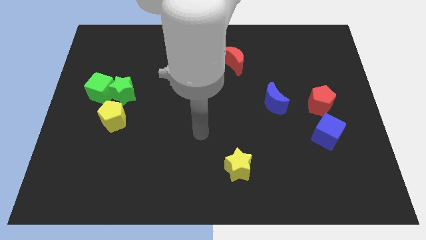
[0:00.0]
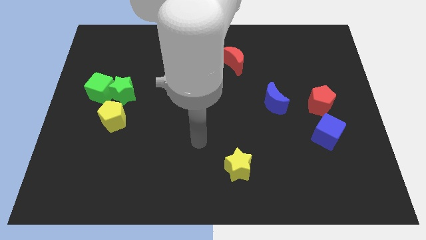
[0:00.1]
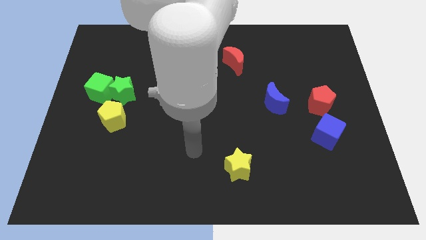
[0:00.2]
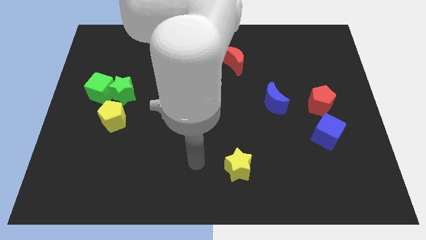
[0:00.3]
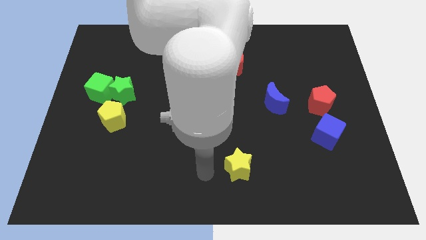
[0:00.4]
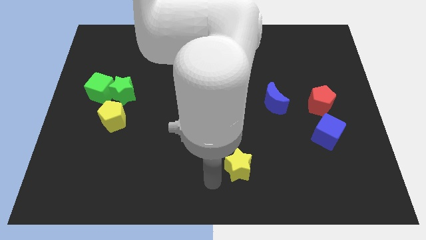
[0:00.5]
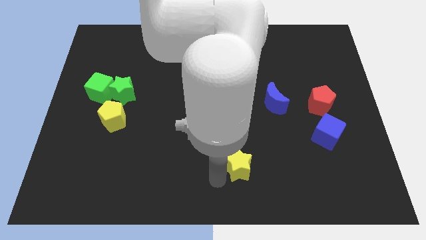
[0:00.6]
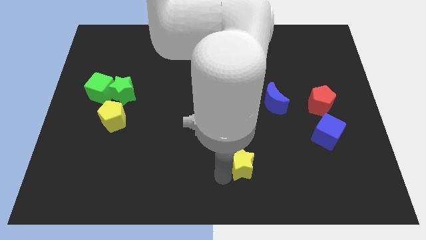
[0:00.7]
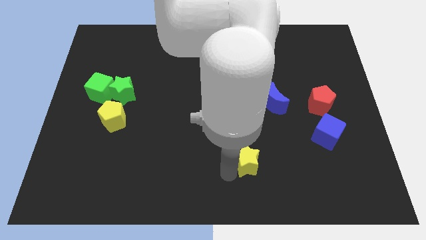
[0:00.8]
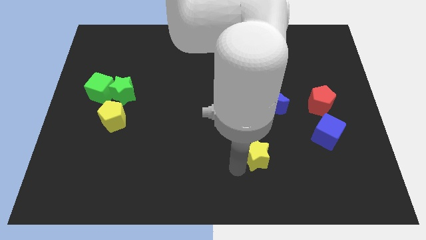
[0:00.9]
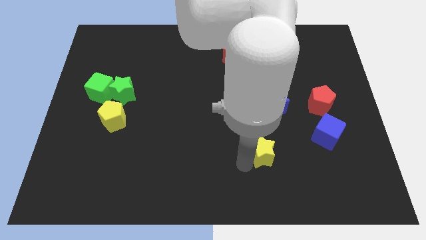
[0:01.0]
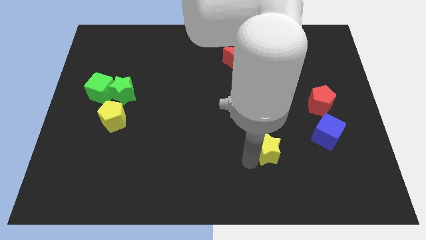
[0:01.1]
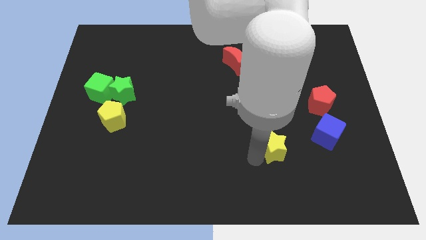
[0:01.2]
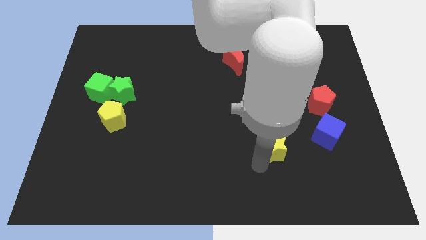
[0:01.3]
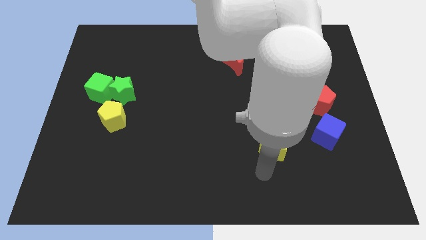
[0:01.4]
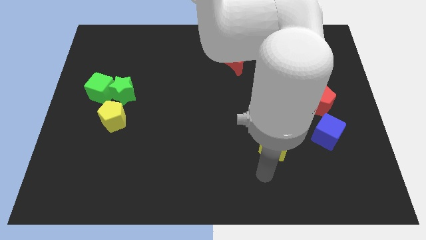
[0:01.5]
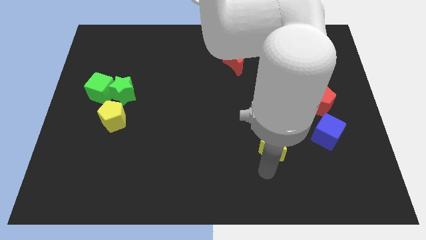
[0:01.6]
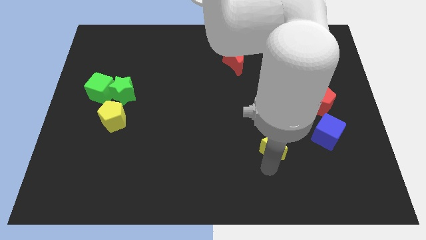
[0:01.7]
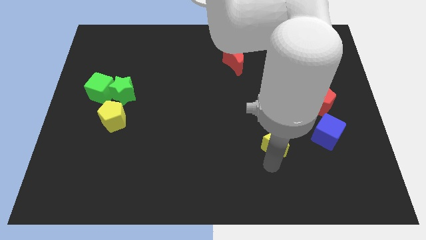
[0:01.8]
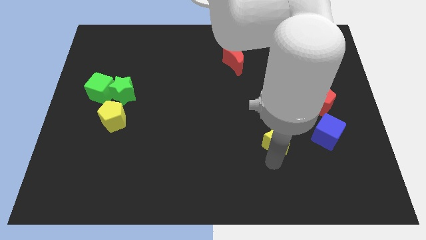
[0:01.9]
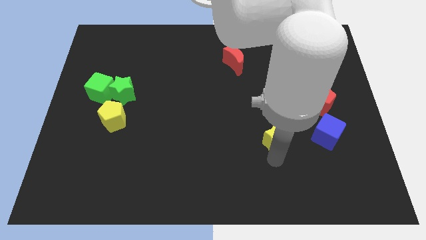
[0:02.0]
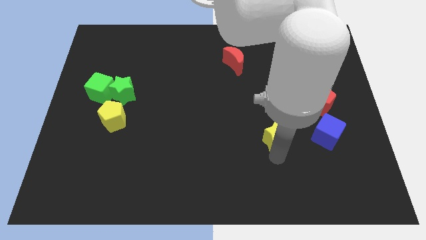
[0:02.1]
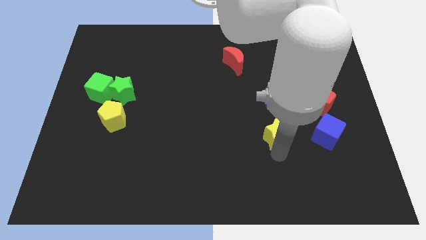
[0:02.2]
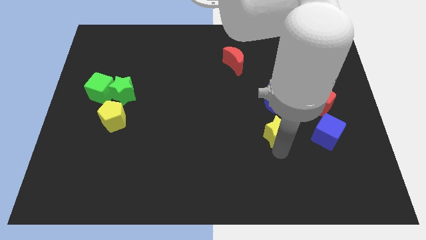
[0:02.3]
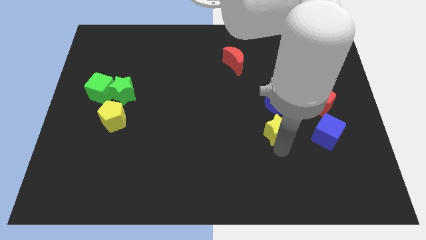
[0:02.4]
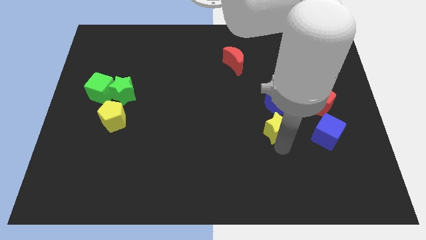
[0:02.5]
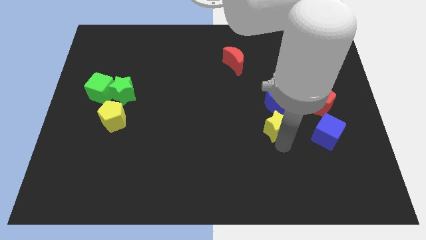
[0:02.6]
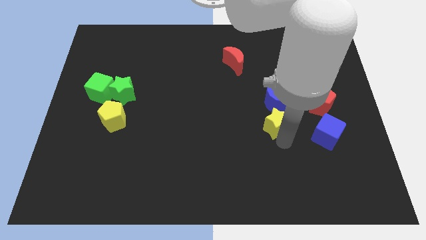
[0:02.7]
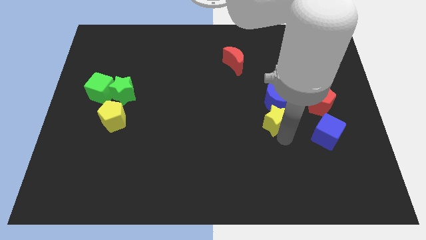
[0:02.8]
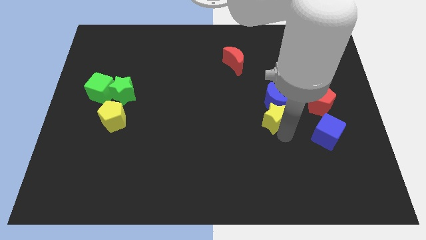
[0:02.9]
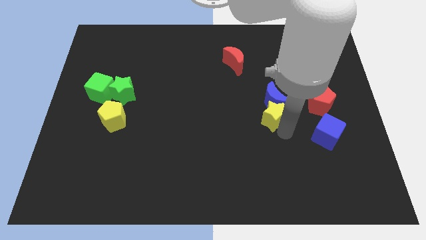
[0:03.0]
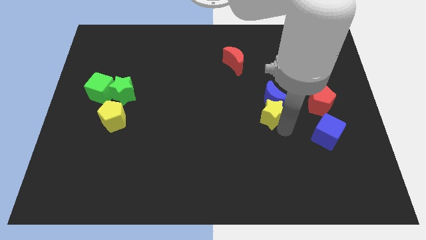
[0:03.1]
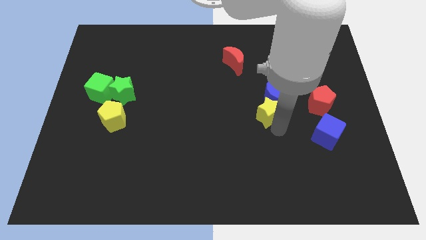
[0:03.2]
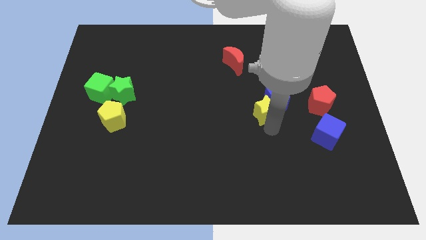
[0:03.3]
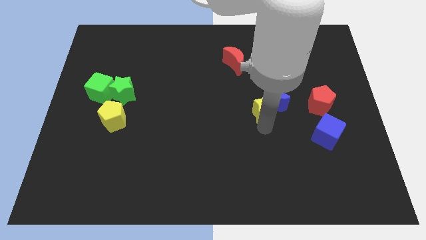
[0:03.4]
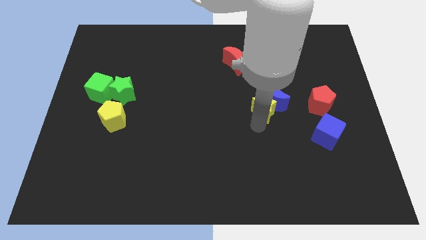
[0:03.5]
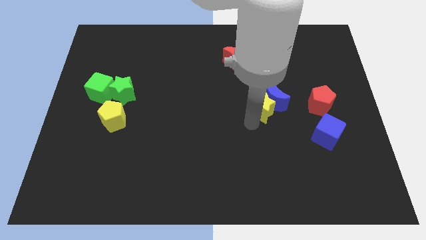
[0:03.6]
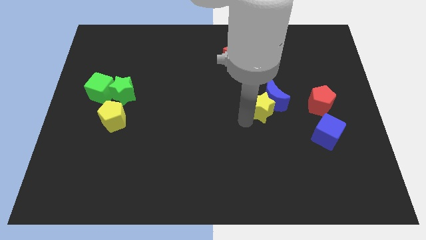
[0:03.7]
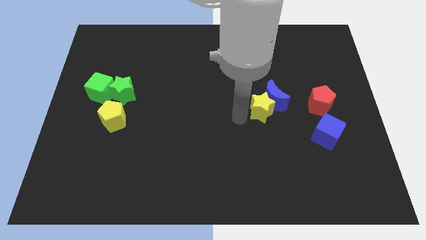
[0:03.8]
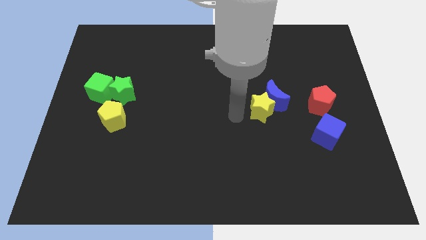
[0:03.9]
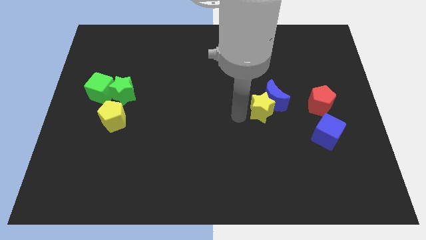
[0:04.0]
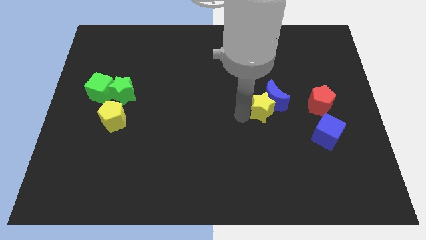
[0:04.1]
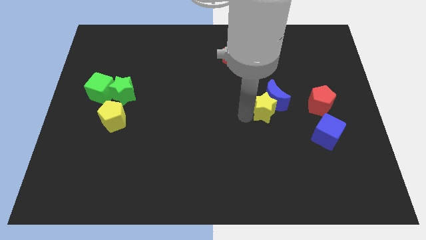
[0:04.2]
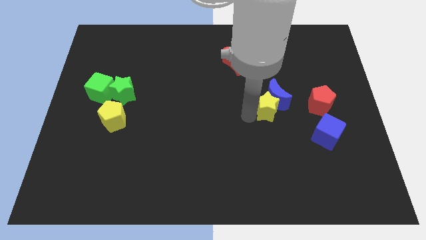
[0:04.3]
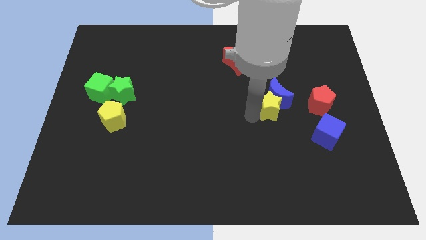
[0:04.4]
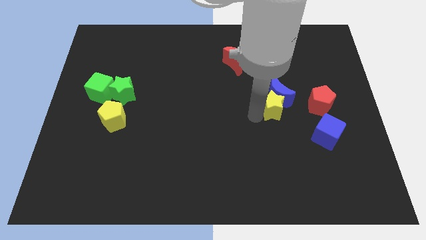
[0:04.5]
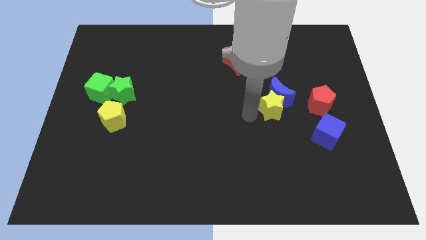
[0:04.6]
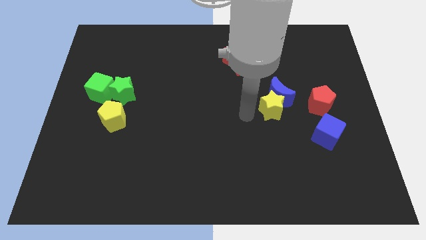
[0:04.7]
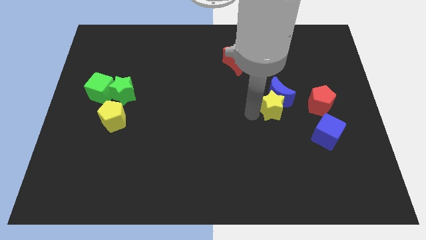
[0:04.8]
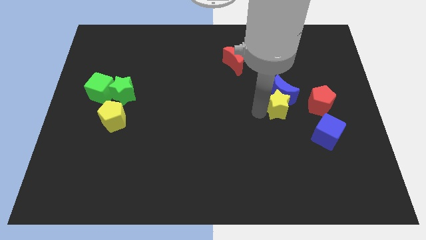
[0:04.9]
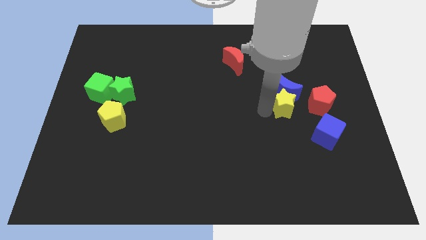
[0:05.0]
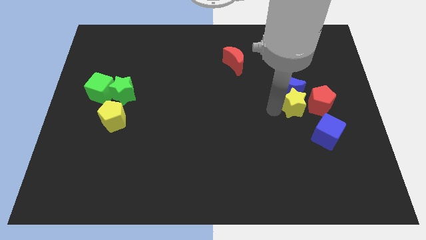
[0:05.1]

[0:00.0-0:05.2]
slide the yellow star upwards and then right

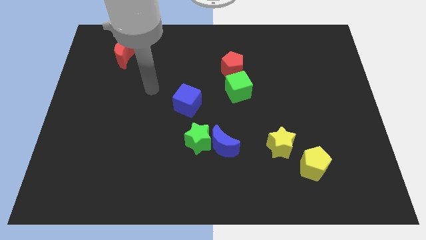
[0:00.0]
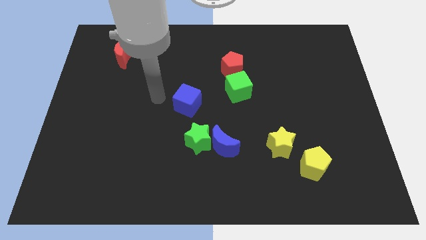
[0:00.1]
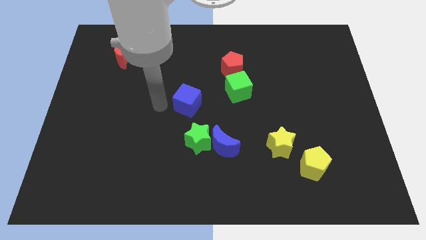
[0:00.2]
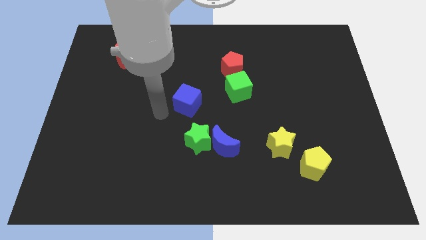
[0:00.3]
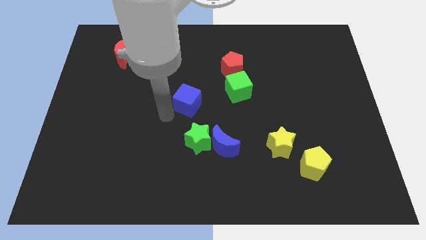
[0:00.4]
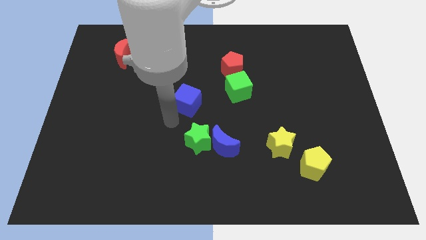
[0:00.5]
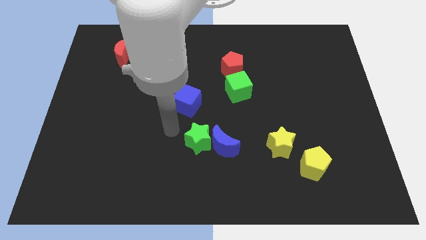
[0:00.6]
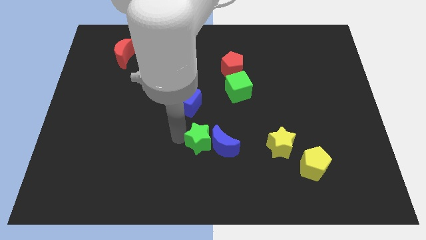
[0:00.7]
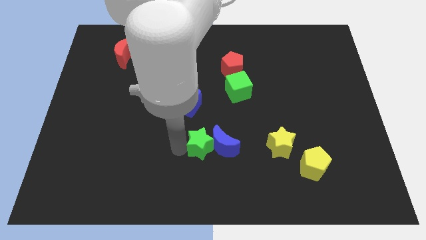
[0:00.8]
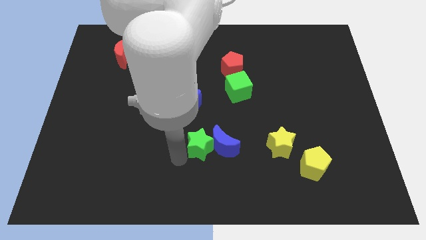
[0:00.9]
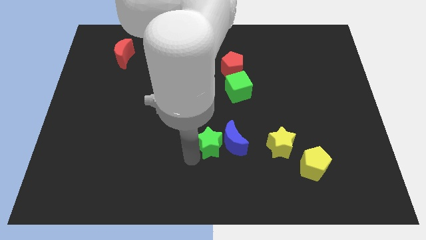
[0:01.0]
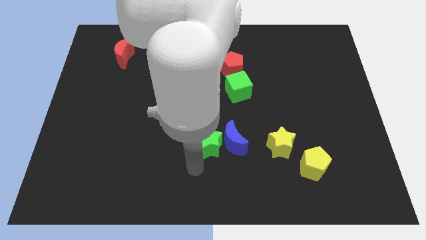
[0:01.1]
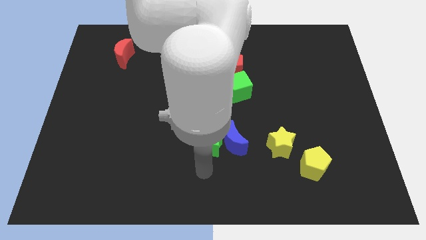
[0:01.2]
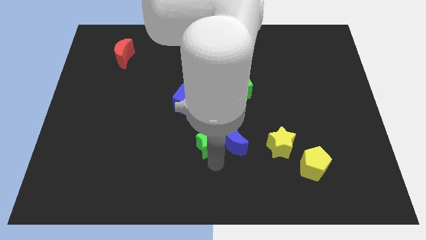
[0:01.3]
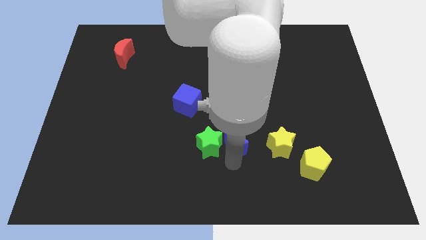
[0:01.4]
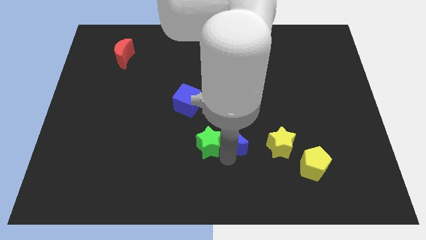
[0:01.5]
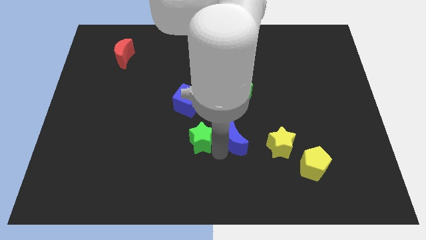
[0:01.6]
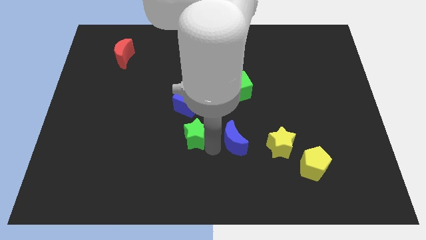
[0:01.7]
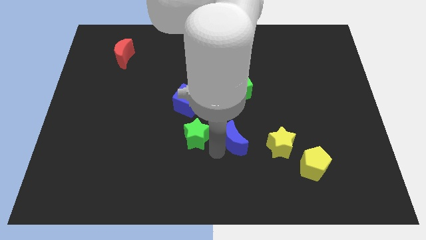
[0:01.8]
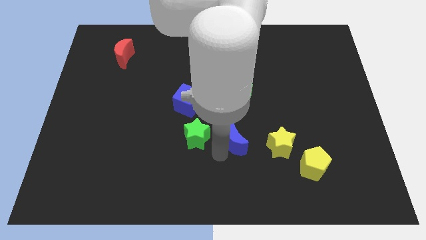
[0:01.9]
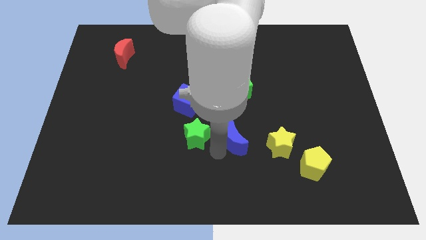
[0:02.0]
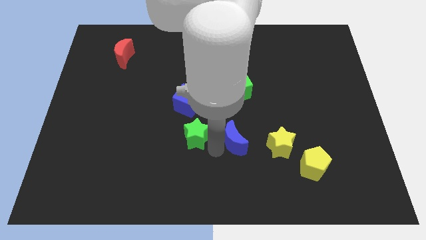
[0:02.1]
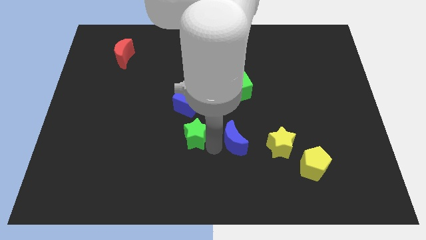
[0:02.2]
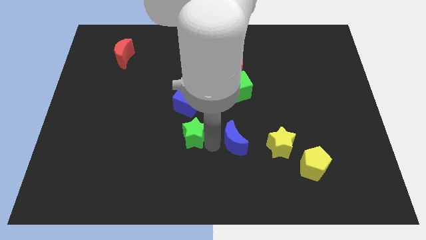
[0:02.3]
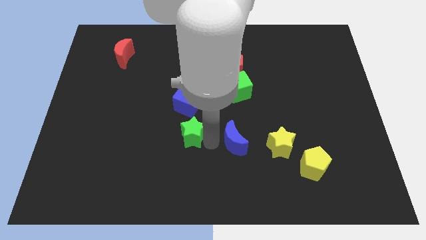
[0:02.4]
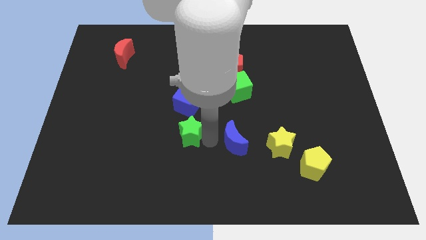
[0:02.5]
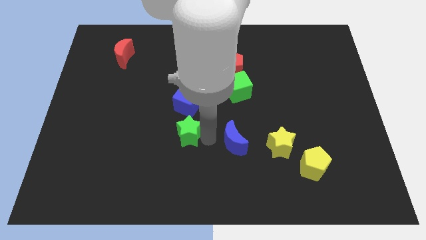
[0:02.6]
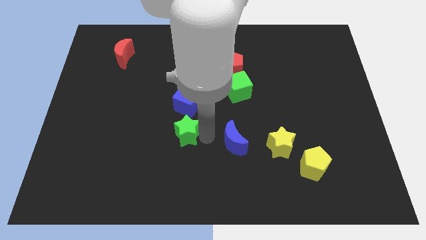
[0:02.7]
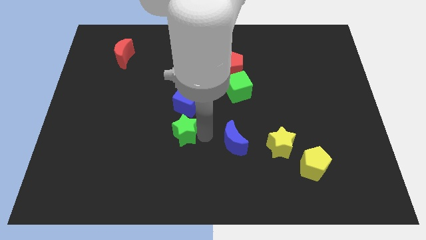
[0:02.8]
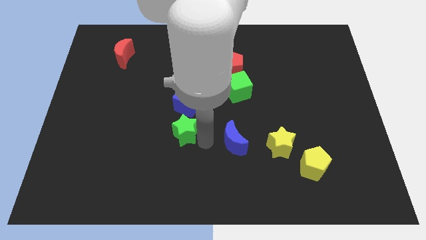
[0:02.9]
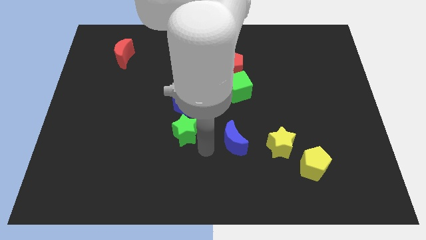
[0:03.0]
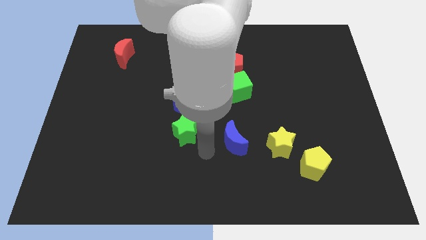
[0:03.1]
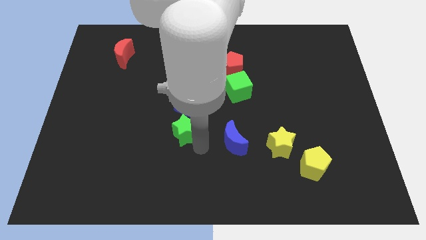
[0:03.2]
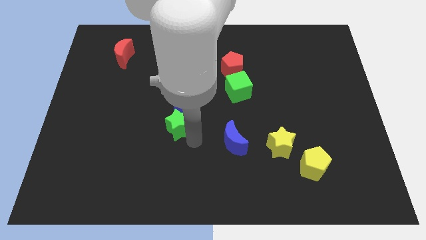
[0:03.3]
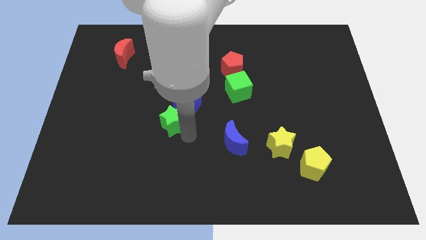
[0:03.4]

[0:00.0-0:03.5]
push the green star somewhat up and to the left diagonally
